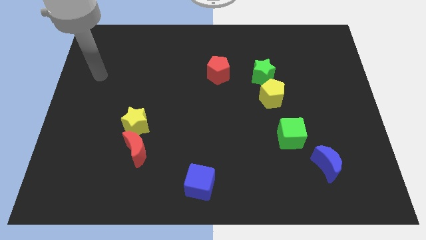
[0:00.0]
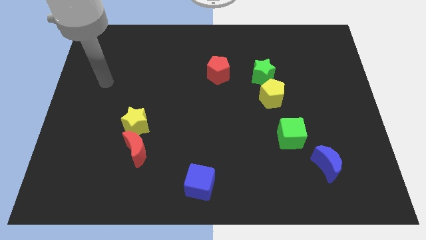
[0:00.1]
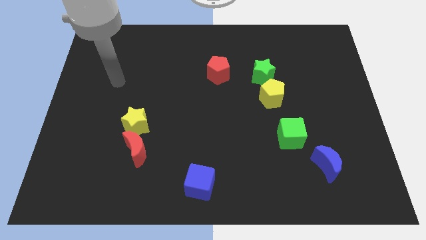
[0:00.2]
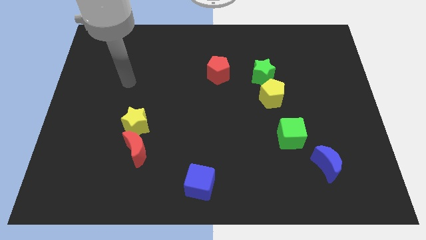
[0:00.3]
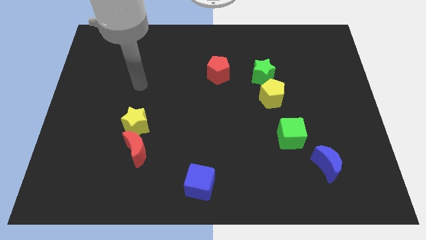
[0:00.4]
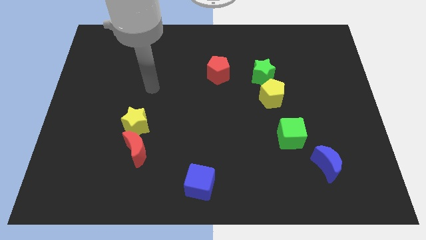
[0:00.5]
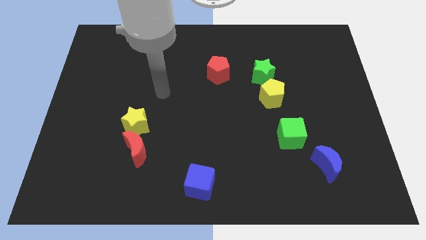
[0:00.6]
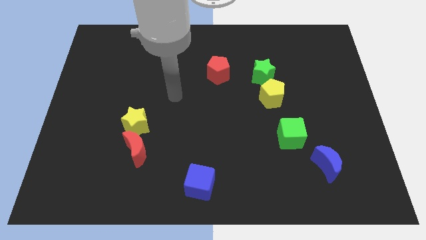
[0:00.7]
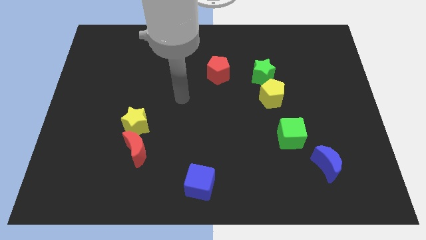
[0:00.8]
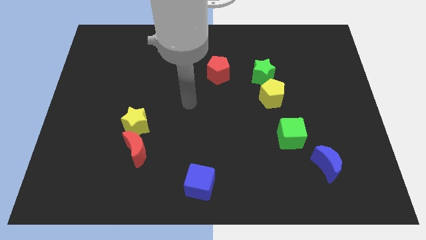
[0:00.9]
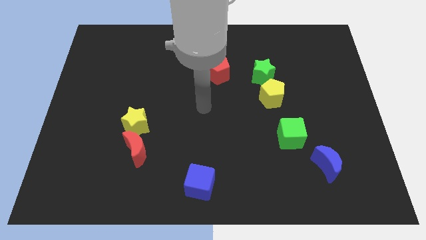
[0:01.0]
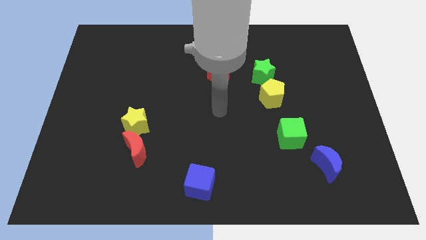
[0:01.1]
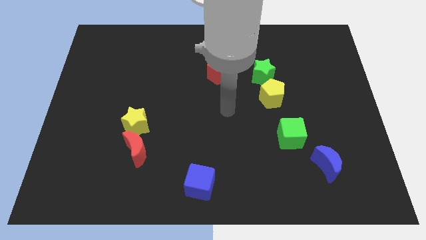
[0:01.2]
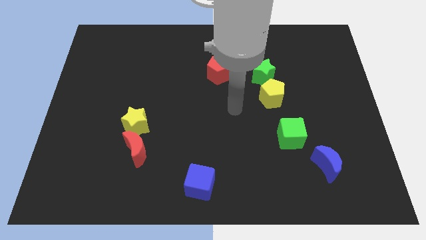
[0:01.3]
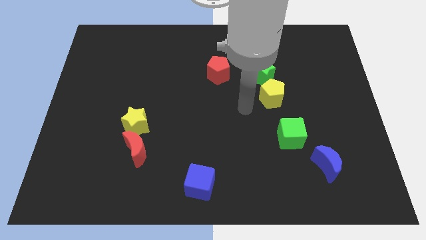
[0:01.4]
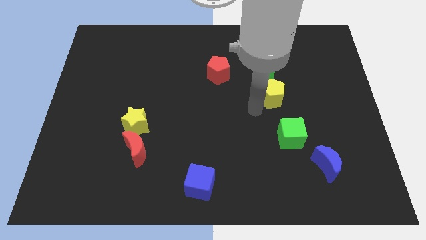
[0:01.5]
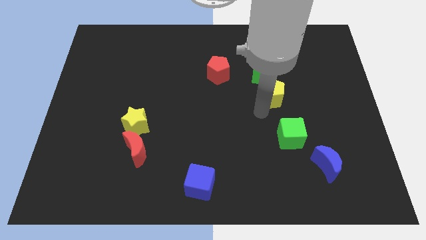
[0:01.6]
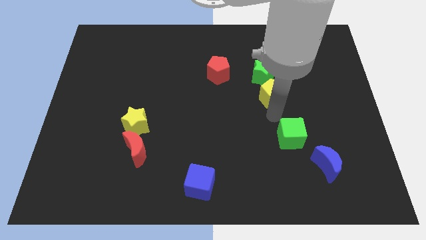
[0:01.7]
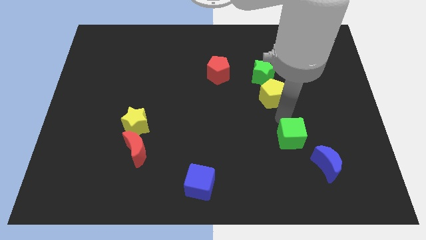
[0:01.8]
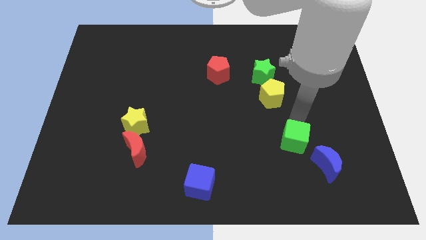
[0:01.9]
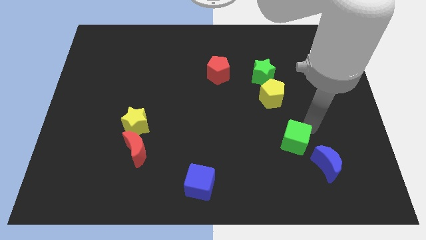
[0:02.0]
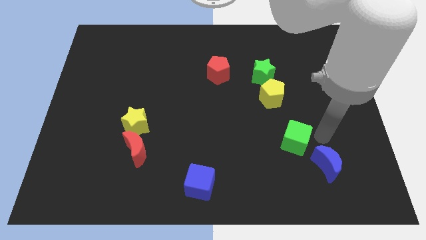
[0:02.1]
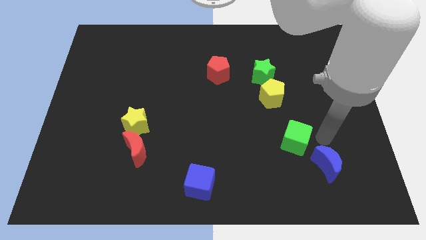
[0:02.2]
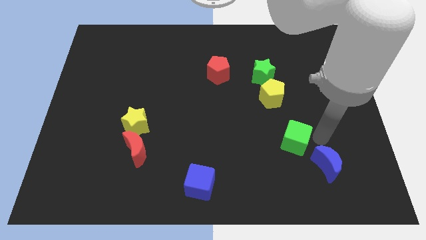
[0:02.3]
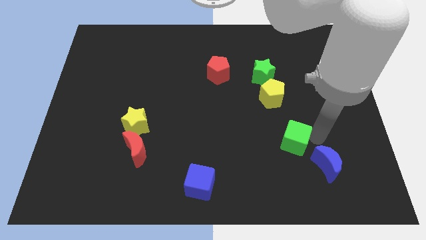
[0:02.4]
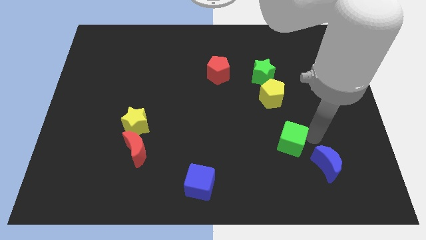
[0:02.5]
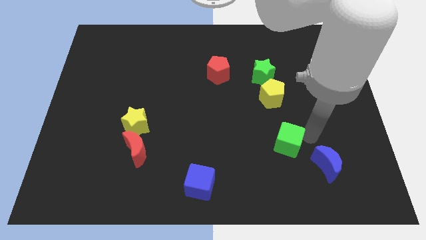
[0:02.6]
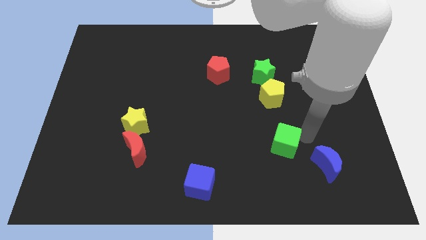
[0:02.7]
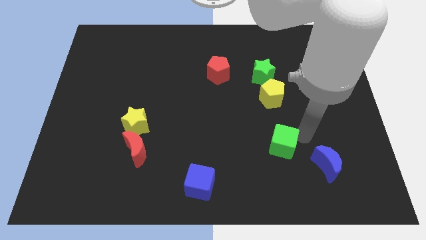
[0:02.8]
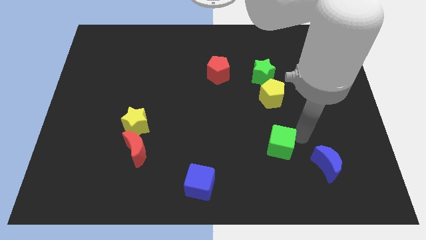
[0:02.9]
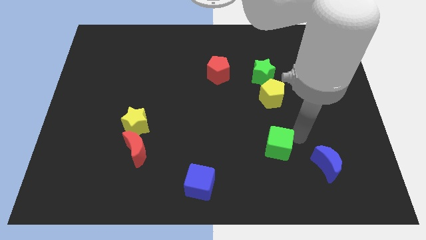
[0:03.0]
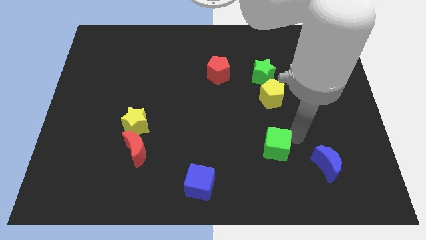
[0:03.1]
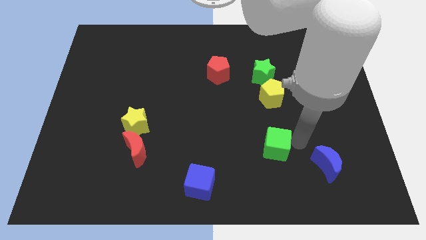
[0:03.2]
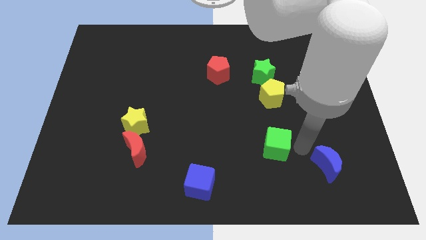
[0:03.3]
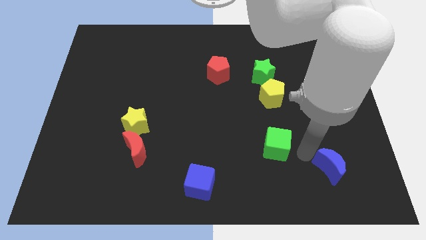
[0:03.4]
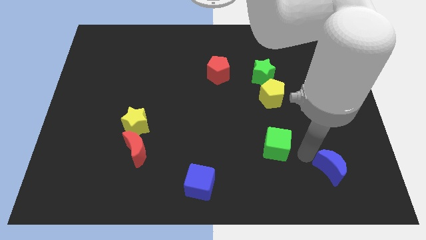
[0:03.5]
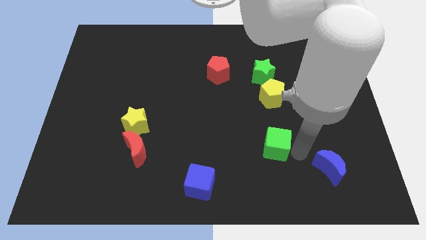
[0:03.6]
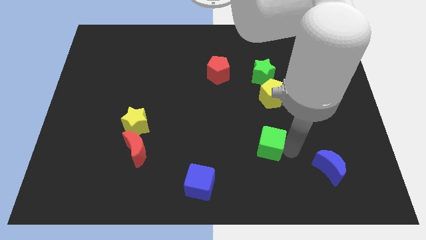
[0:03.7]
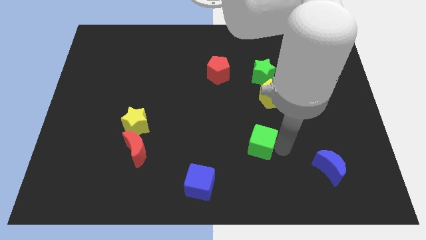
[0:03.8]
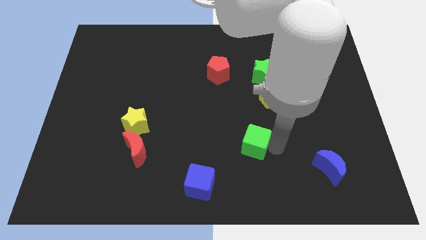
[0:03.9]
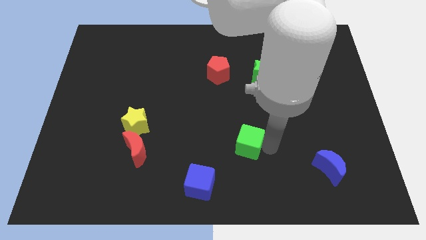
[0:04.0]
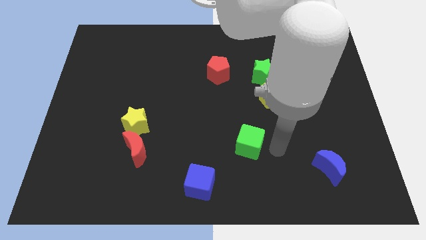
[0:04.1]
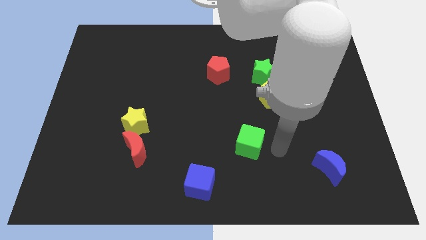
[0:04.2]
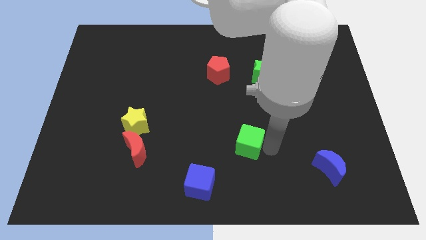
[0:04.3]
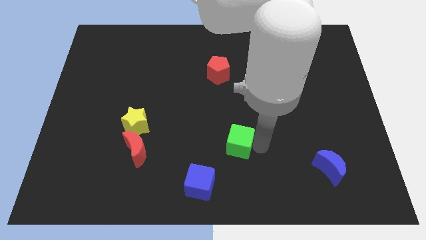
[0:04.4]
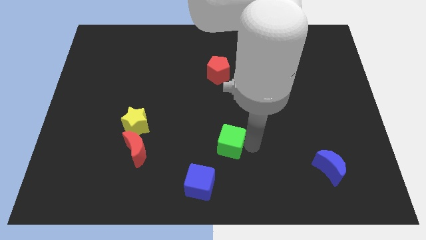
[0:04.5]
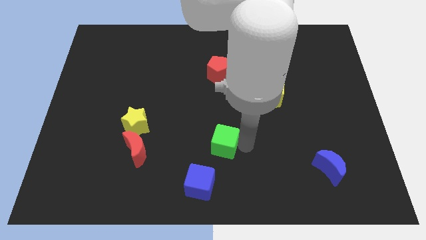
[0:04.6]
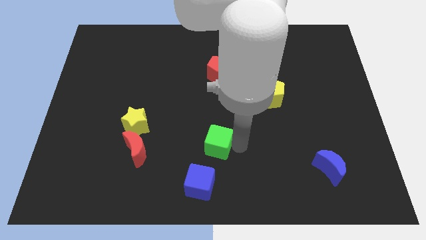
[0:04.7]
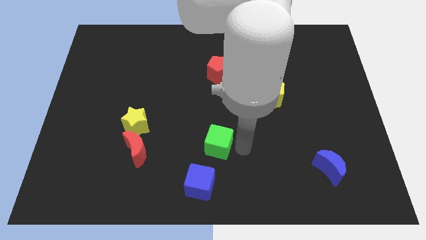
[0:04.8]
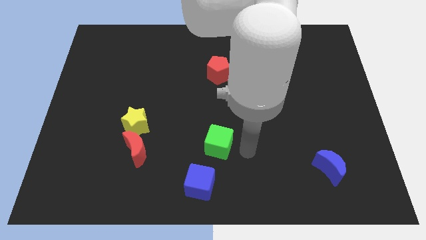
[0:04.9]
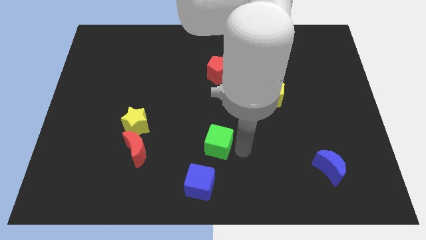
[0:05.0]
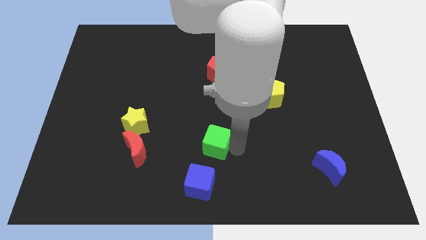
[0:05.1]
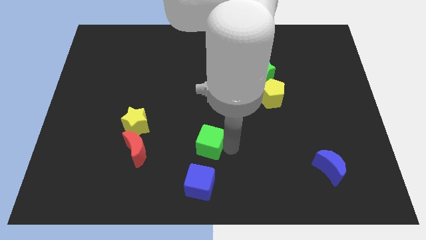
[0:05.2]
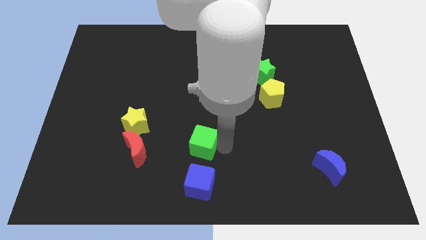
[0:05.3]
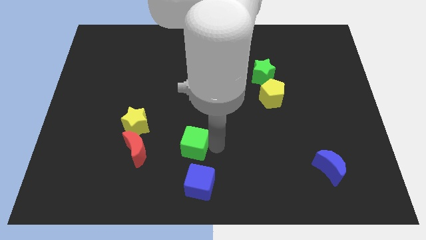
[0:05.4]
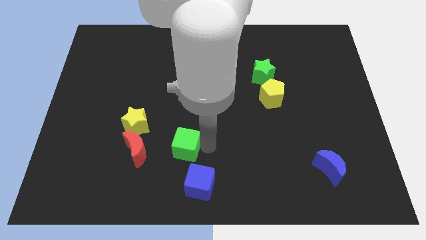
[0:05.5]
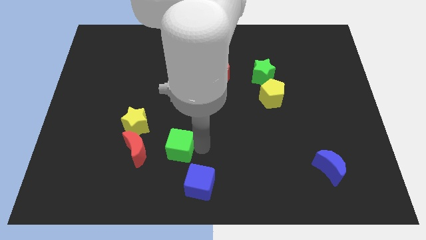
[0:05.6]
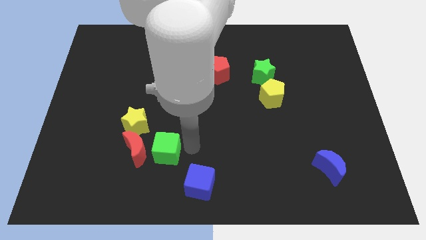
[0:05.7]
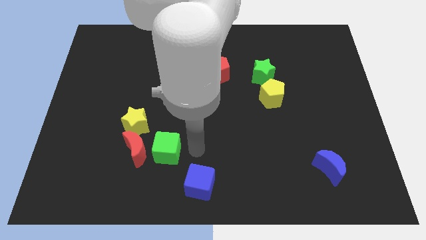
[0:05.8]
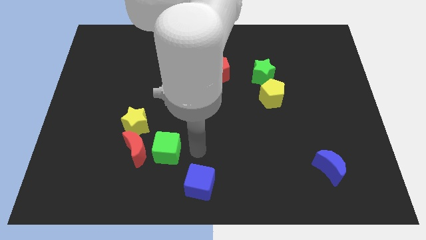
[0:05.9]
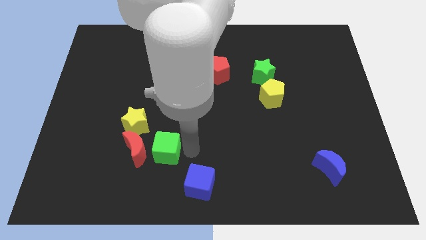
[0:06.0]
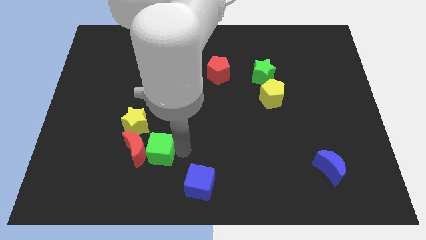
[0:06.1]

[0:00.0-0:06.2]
push the green cube next to the red moon

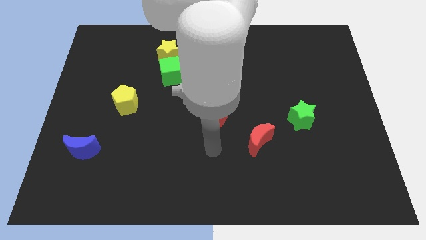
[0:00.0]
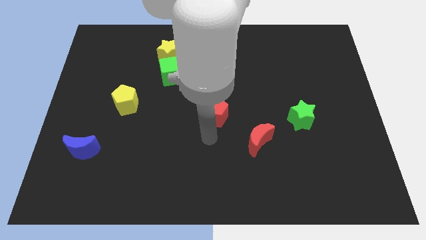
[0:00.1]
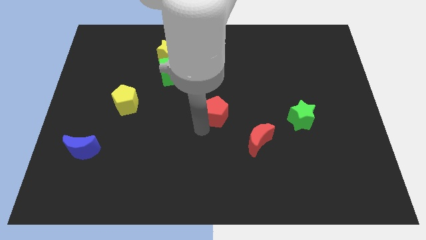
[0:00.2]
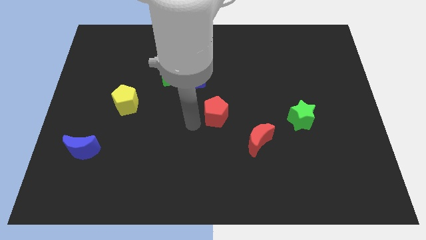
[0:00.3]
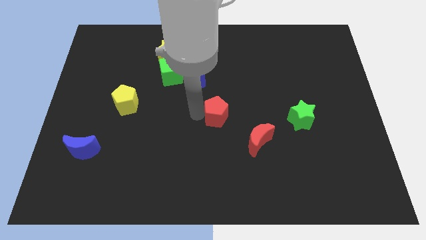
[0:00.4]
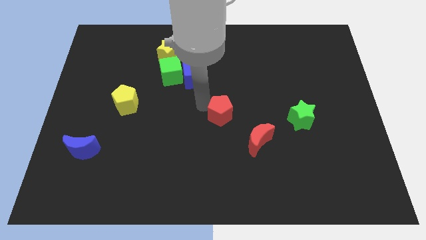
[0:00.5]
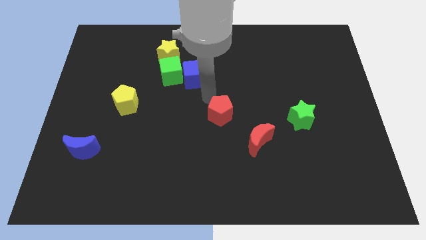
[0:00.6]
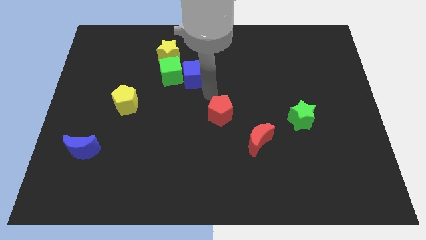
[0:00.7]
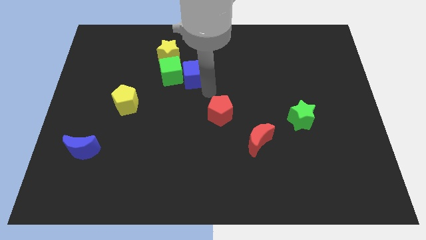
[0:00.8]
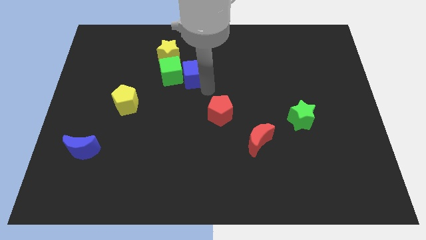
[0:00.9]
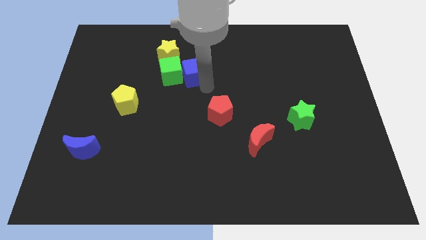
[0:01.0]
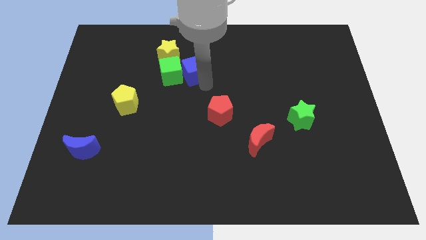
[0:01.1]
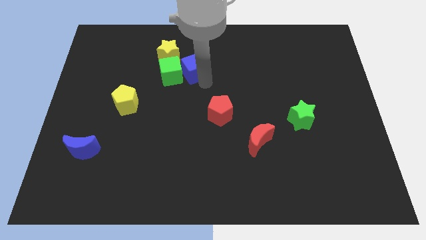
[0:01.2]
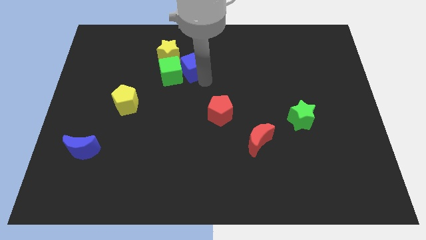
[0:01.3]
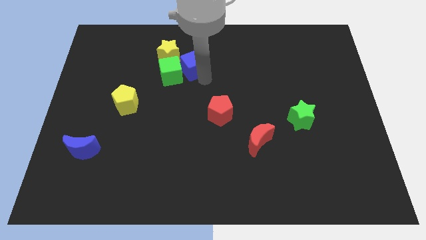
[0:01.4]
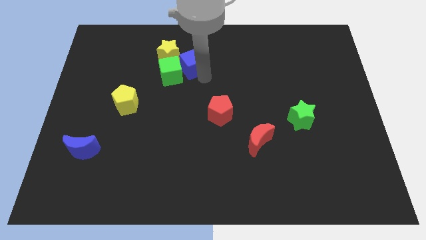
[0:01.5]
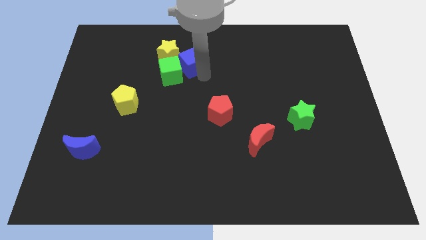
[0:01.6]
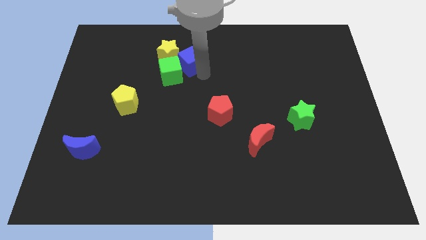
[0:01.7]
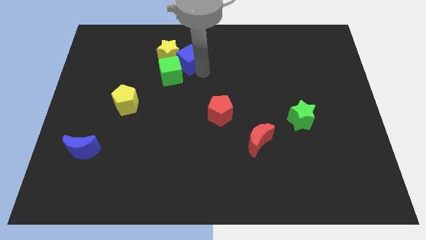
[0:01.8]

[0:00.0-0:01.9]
push the blue cube to the yellow star
